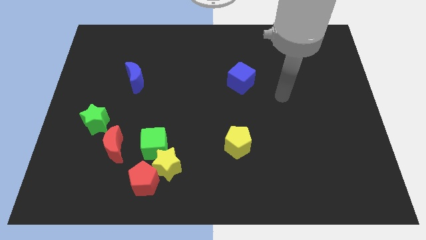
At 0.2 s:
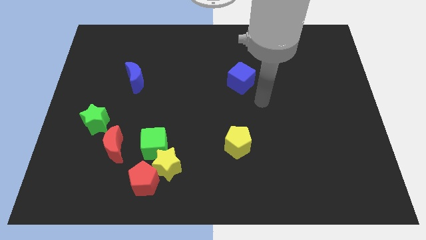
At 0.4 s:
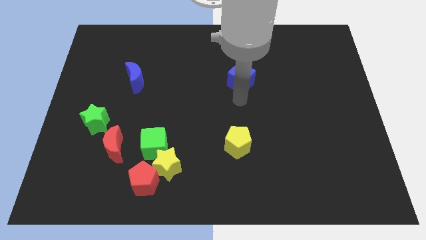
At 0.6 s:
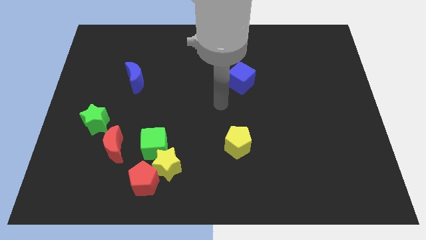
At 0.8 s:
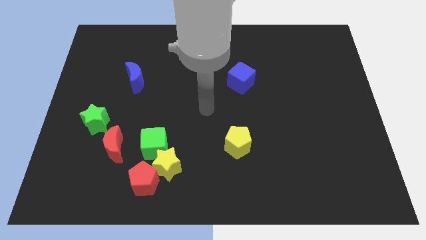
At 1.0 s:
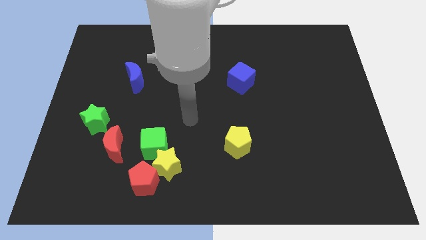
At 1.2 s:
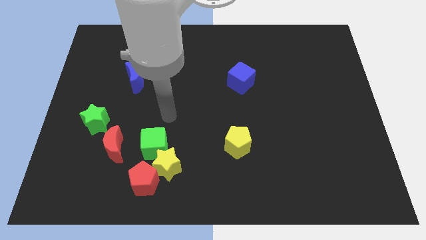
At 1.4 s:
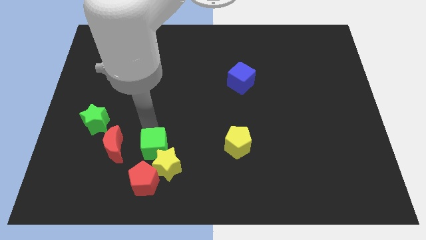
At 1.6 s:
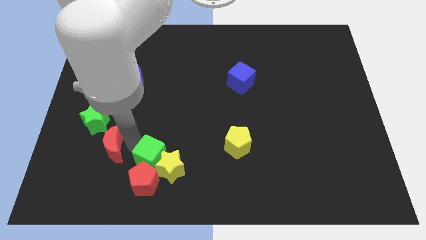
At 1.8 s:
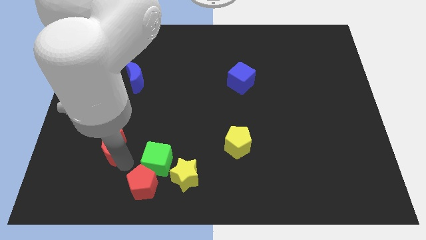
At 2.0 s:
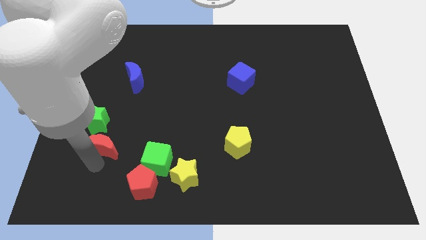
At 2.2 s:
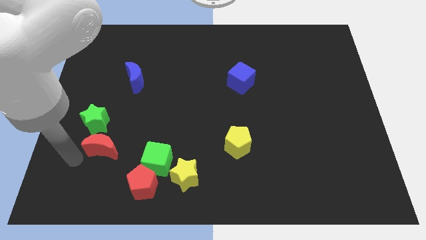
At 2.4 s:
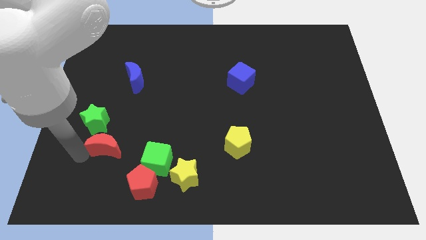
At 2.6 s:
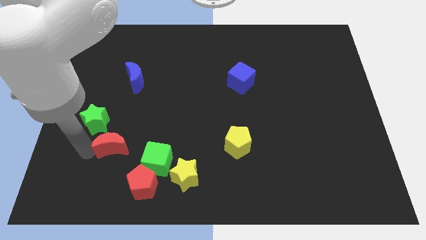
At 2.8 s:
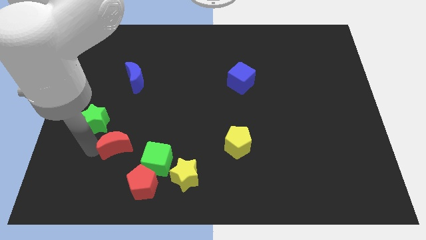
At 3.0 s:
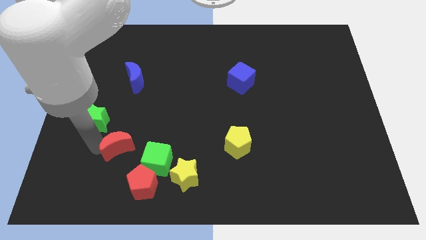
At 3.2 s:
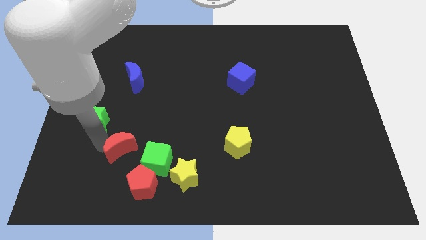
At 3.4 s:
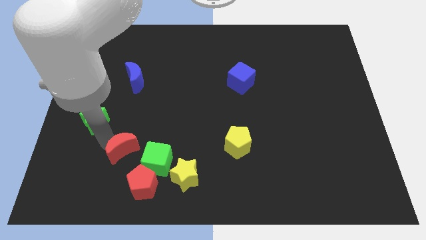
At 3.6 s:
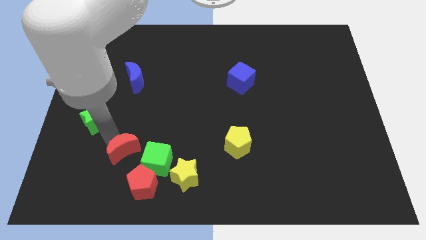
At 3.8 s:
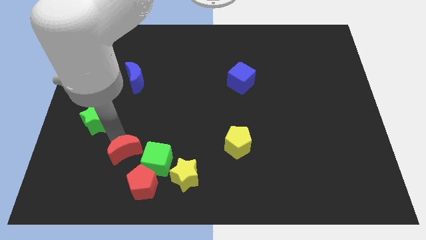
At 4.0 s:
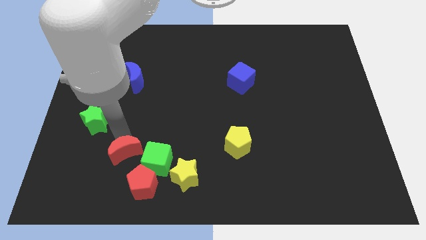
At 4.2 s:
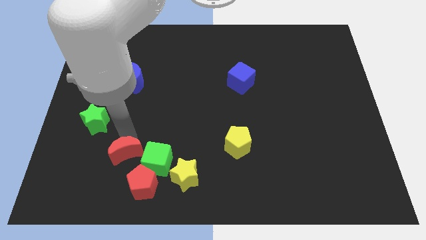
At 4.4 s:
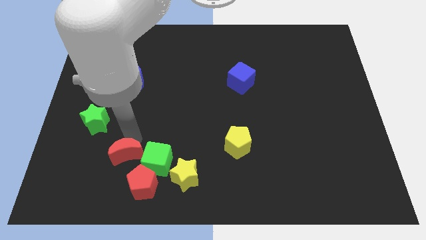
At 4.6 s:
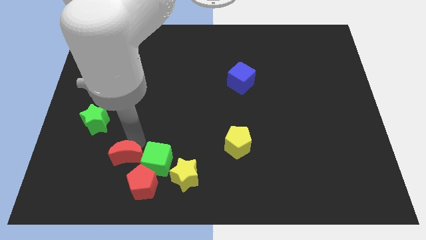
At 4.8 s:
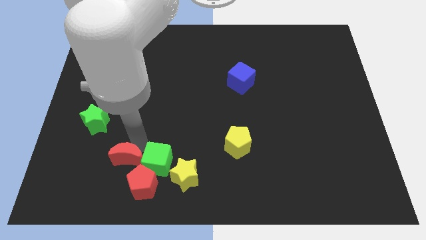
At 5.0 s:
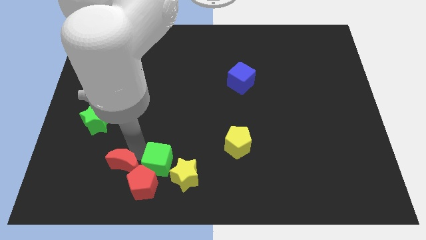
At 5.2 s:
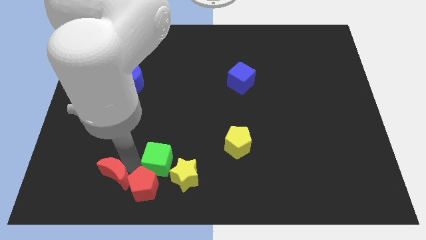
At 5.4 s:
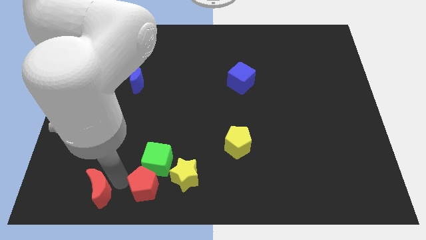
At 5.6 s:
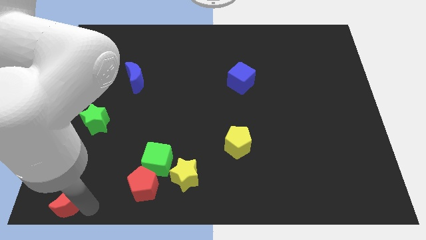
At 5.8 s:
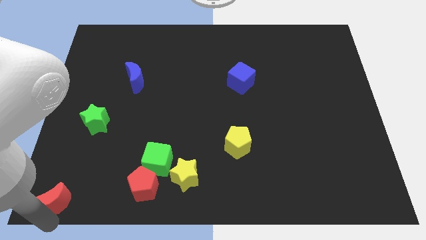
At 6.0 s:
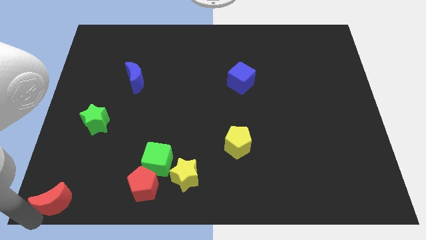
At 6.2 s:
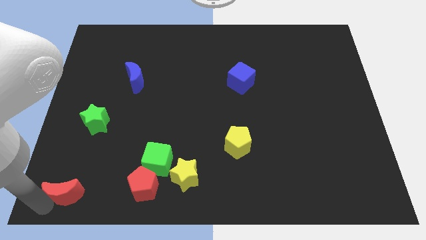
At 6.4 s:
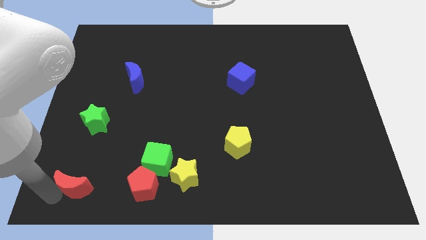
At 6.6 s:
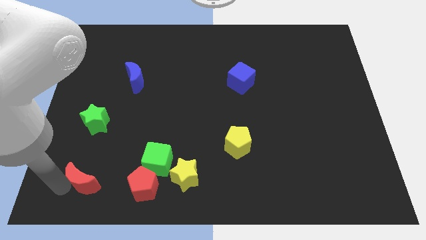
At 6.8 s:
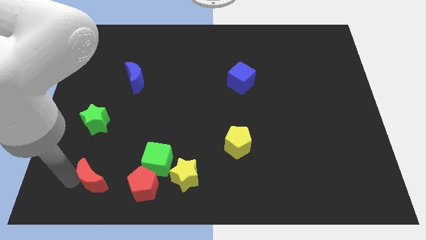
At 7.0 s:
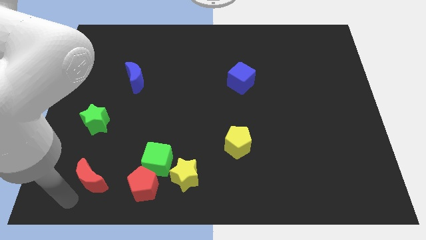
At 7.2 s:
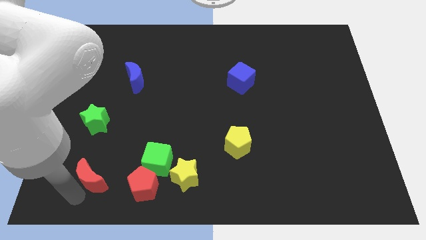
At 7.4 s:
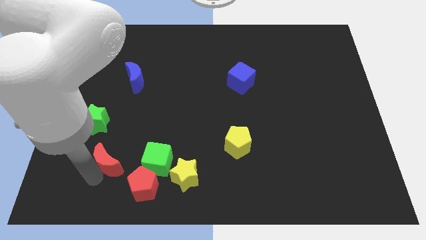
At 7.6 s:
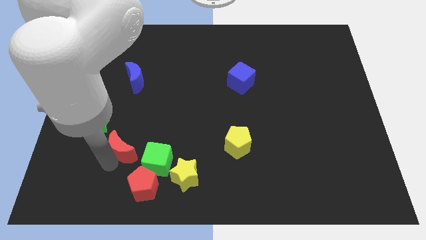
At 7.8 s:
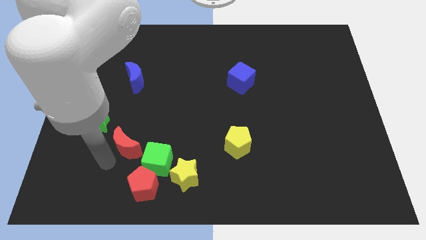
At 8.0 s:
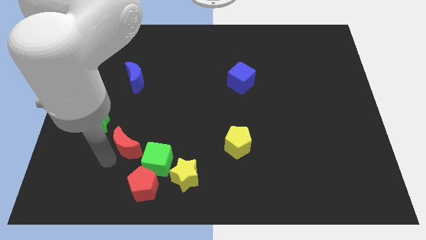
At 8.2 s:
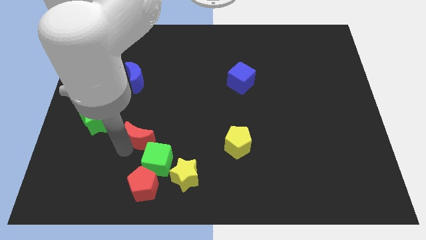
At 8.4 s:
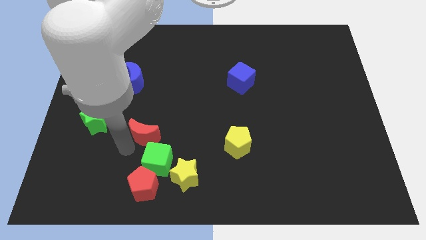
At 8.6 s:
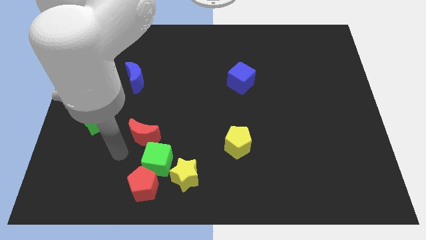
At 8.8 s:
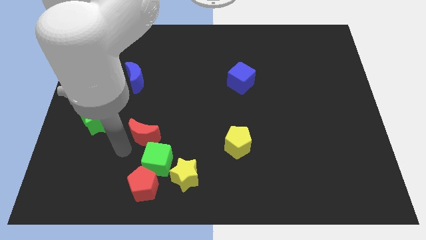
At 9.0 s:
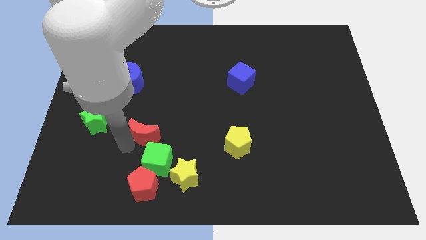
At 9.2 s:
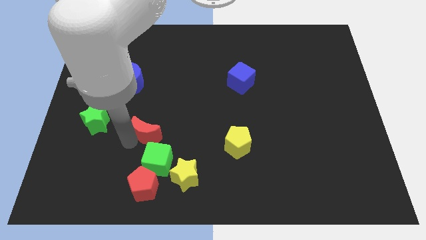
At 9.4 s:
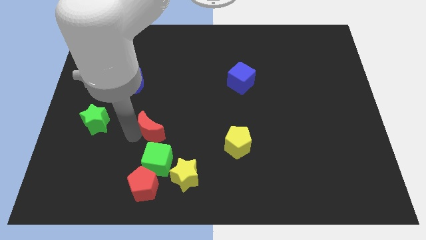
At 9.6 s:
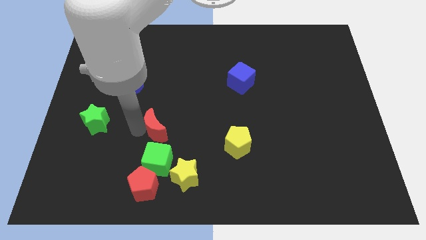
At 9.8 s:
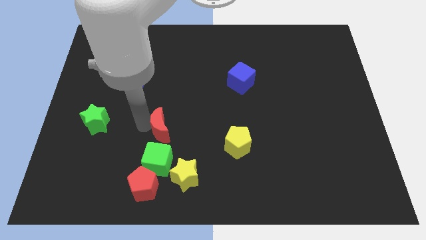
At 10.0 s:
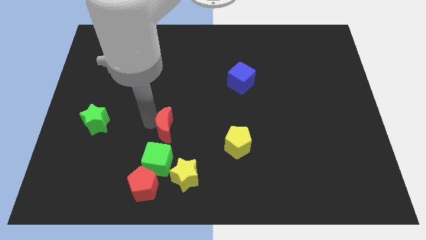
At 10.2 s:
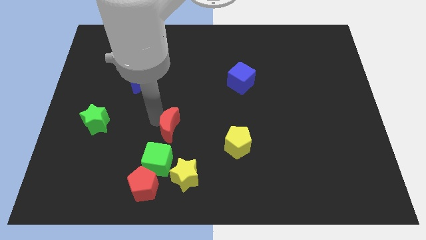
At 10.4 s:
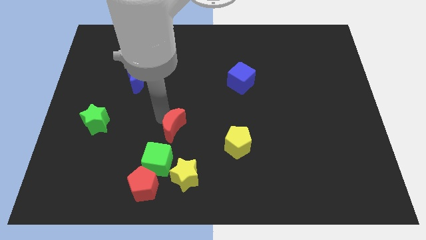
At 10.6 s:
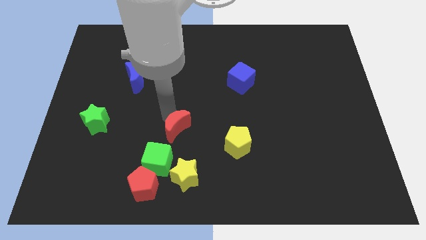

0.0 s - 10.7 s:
push the red moon left of the yellow pentagon

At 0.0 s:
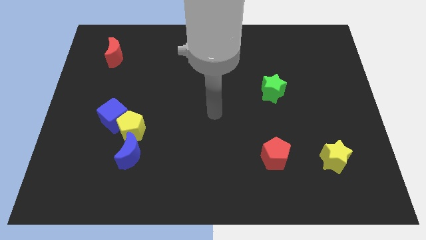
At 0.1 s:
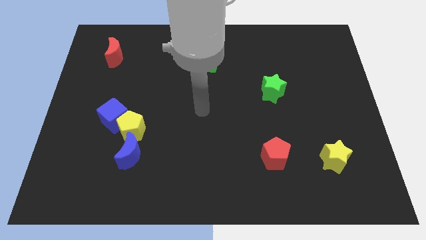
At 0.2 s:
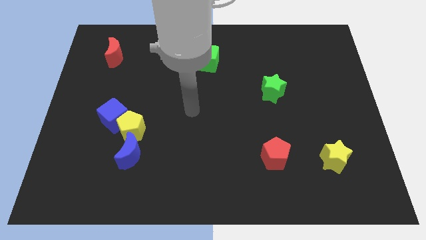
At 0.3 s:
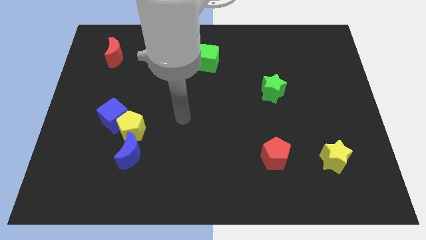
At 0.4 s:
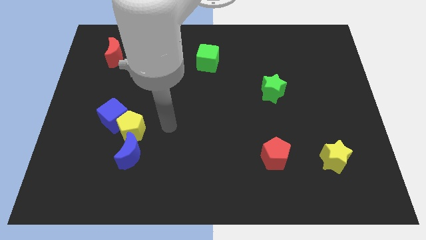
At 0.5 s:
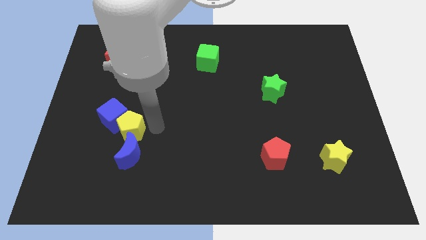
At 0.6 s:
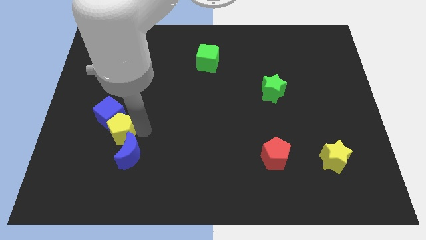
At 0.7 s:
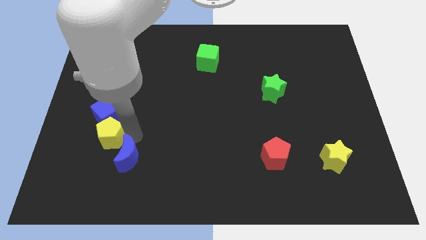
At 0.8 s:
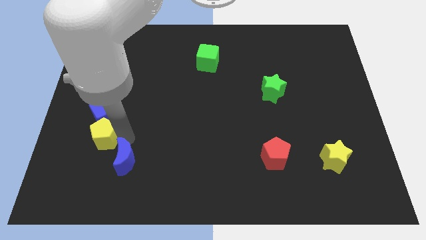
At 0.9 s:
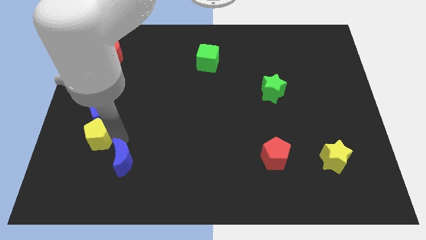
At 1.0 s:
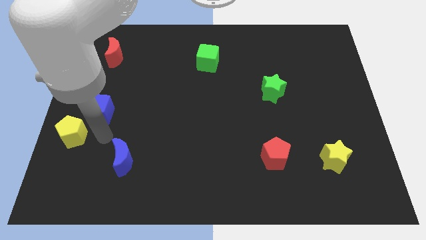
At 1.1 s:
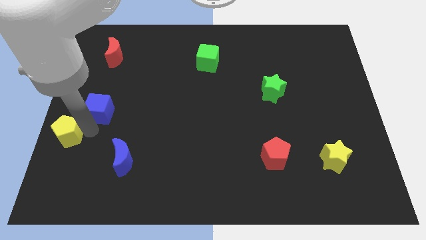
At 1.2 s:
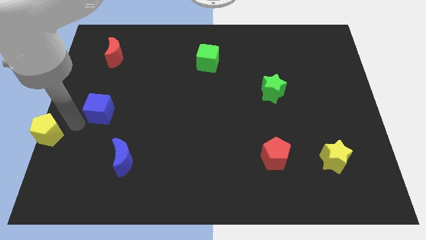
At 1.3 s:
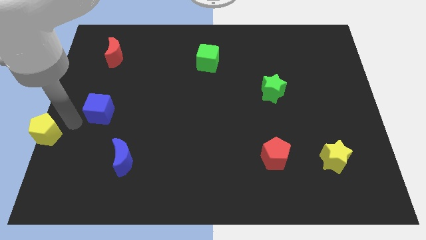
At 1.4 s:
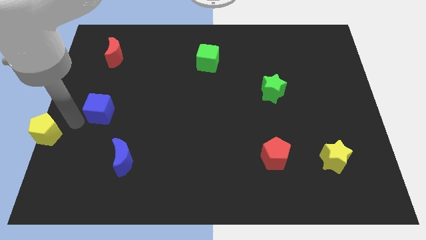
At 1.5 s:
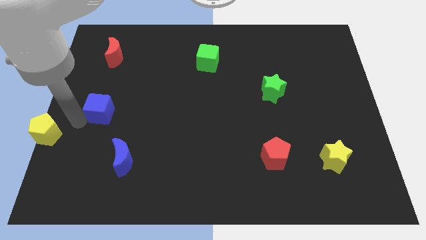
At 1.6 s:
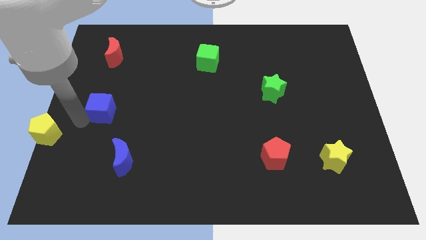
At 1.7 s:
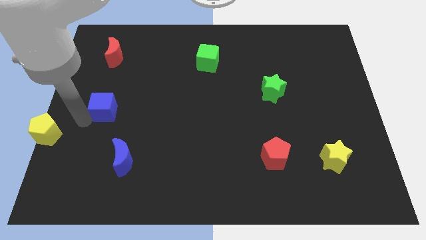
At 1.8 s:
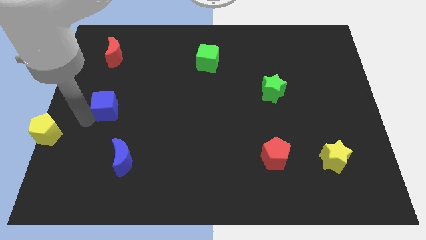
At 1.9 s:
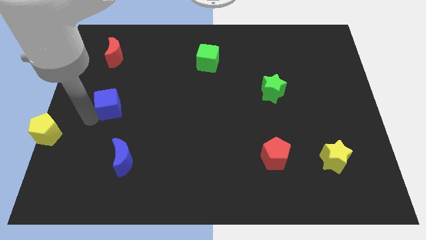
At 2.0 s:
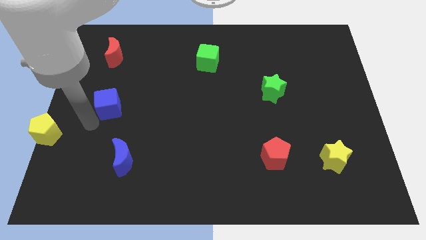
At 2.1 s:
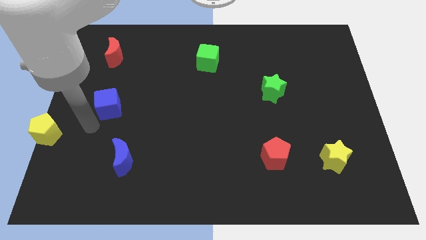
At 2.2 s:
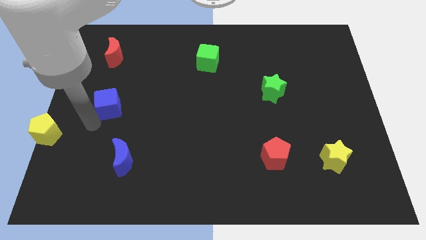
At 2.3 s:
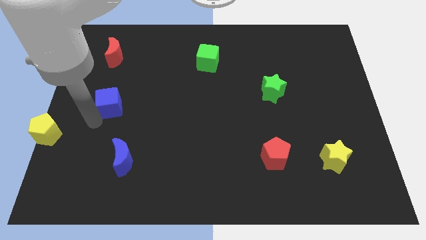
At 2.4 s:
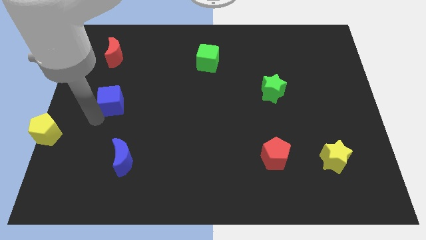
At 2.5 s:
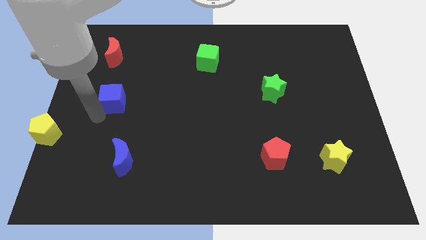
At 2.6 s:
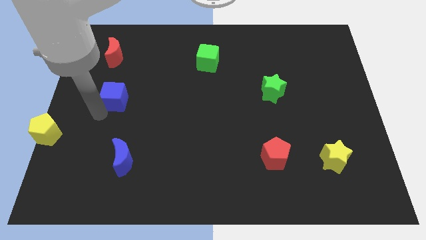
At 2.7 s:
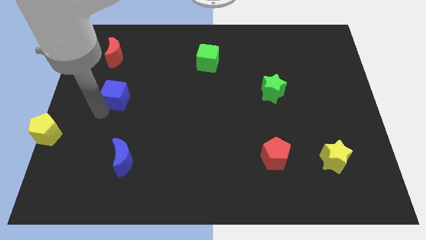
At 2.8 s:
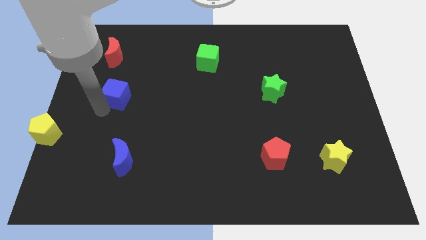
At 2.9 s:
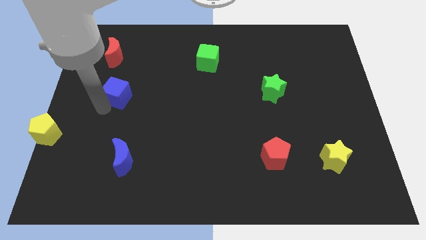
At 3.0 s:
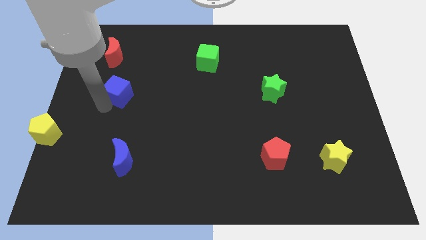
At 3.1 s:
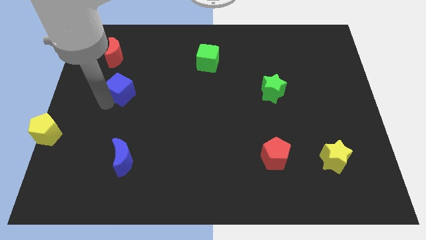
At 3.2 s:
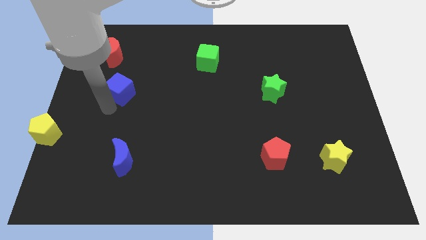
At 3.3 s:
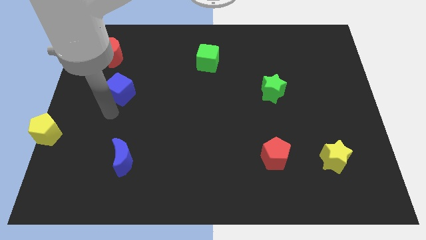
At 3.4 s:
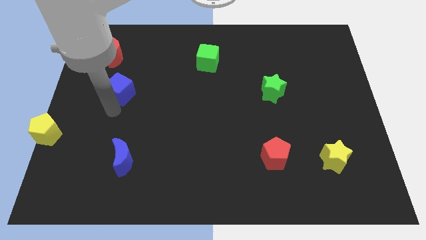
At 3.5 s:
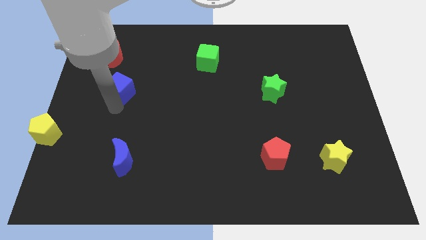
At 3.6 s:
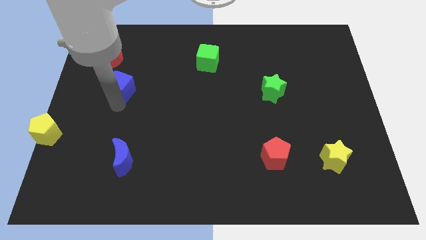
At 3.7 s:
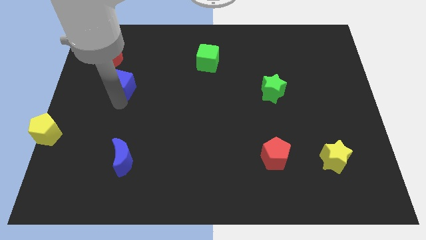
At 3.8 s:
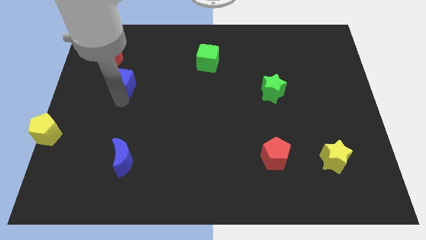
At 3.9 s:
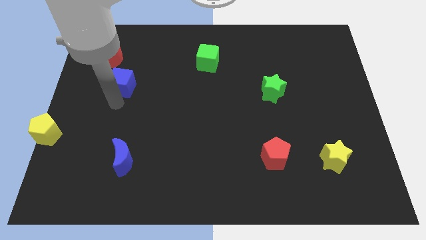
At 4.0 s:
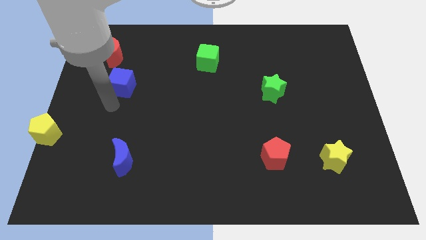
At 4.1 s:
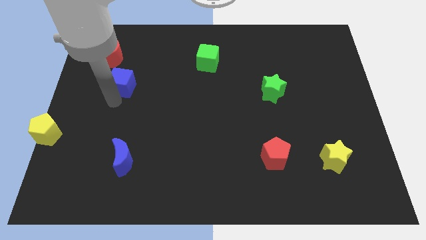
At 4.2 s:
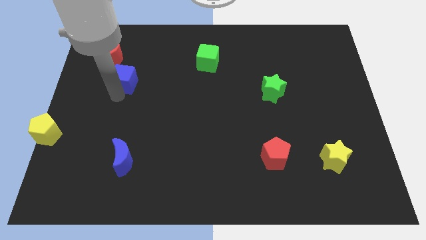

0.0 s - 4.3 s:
push the blue cube diagonally down and to the right of the red moon
